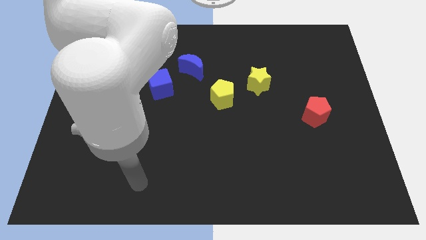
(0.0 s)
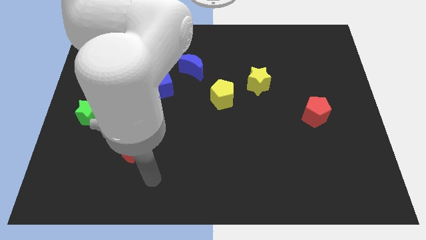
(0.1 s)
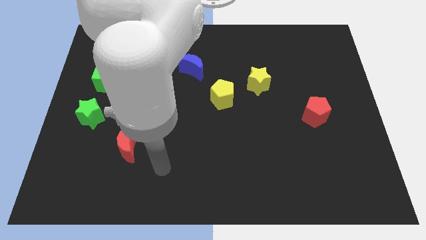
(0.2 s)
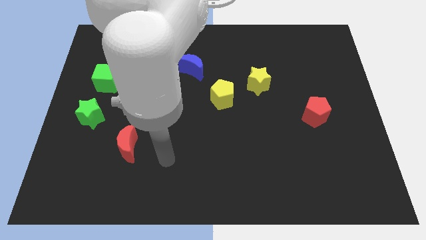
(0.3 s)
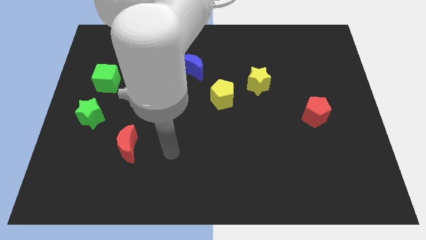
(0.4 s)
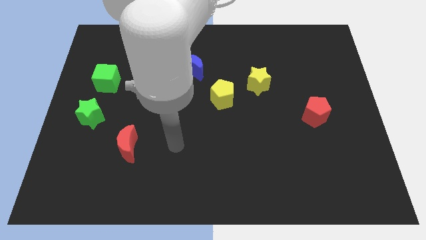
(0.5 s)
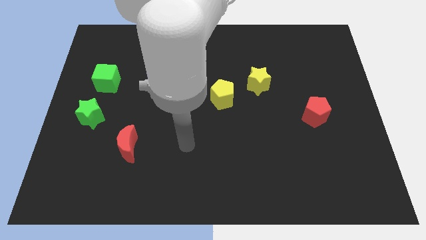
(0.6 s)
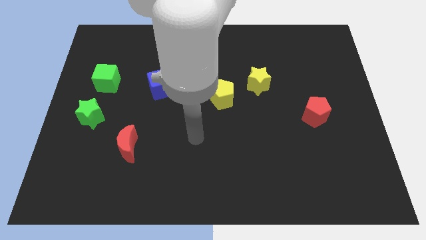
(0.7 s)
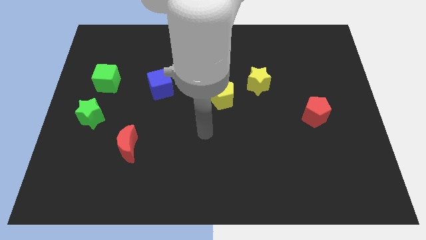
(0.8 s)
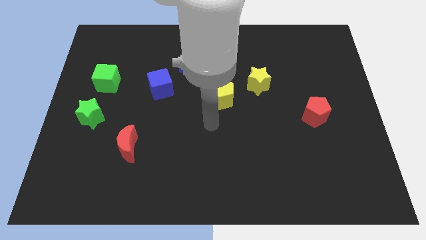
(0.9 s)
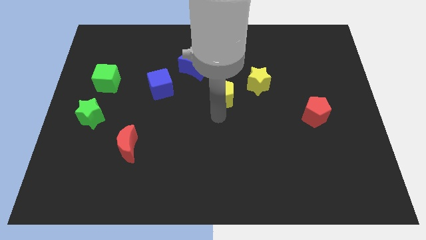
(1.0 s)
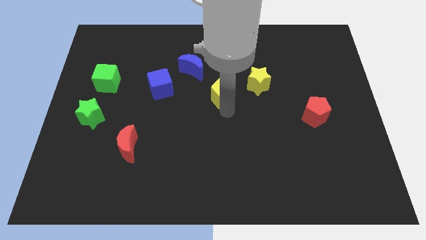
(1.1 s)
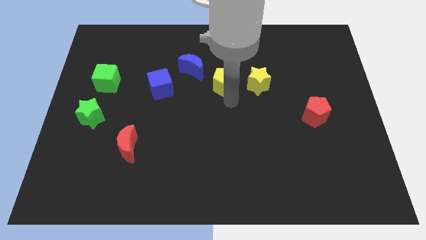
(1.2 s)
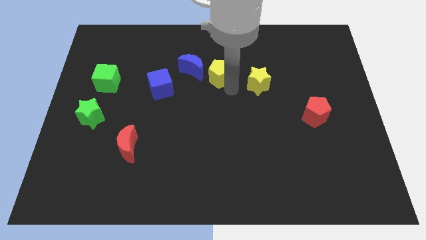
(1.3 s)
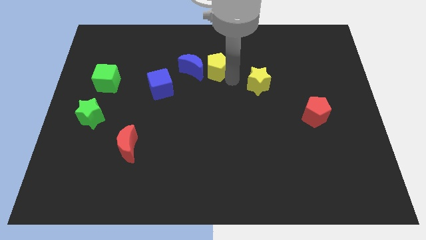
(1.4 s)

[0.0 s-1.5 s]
separate the yellow star from the yellow pentagon

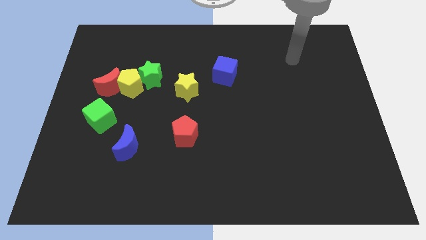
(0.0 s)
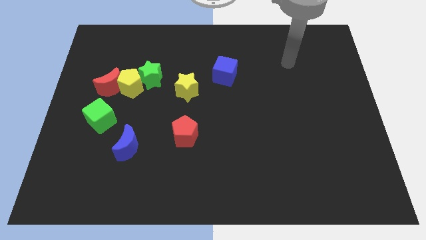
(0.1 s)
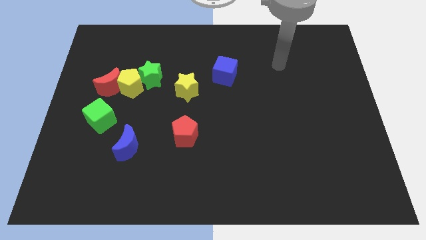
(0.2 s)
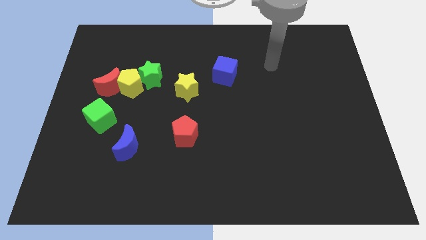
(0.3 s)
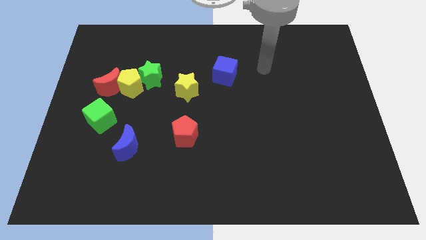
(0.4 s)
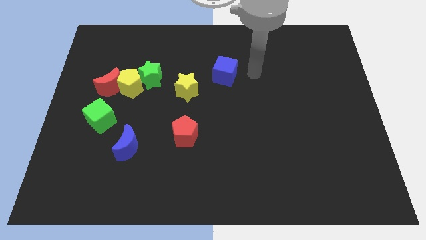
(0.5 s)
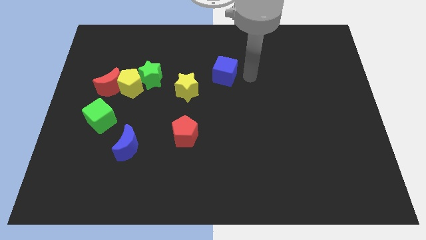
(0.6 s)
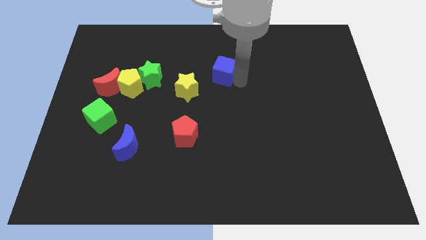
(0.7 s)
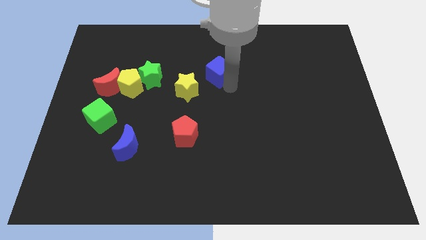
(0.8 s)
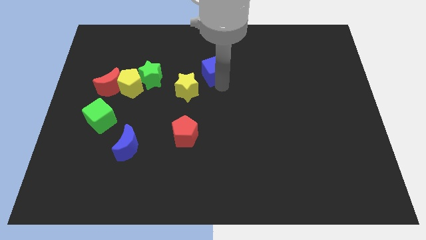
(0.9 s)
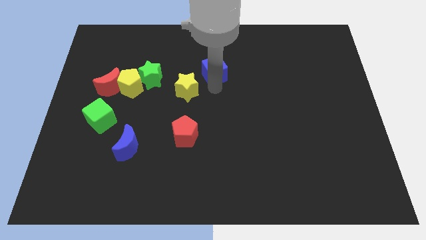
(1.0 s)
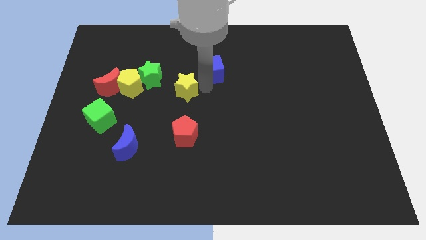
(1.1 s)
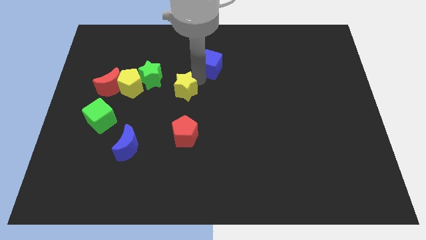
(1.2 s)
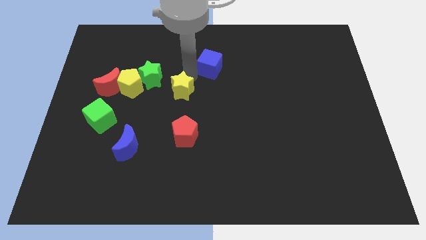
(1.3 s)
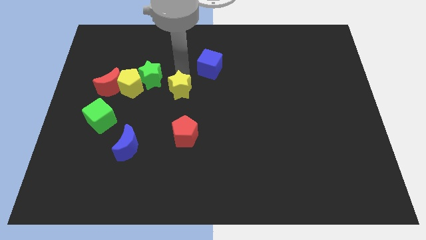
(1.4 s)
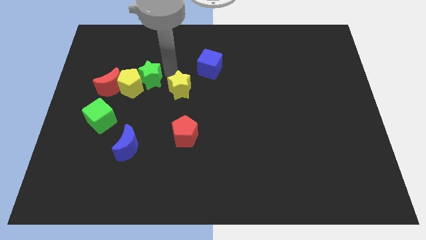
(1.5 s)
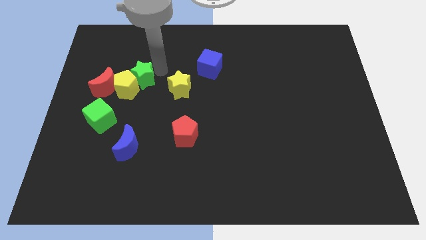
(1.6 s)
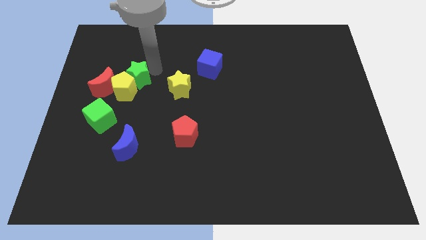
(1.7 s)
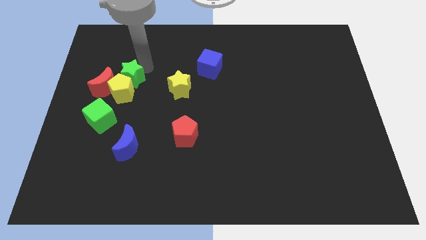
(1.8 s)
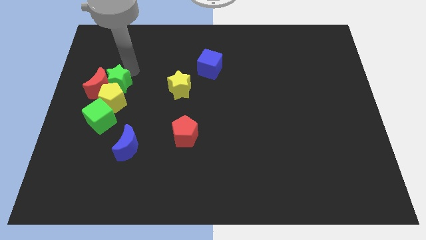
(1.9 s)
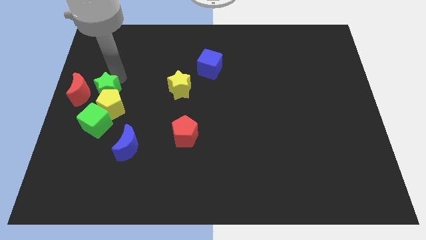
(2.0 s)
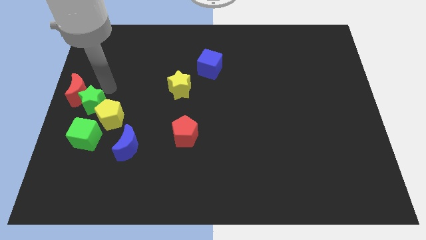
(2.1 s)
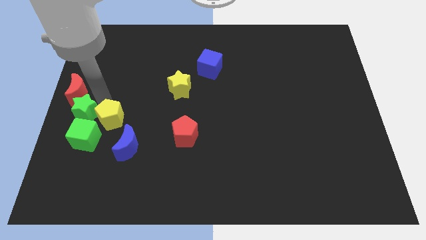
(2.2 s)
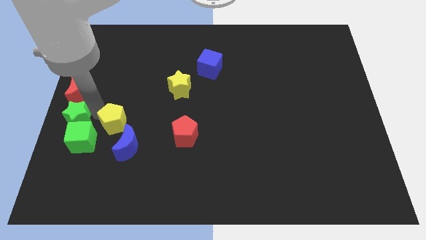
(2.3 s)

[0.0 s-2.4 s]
separate the yellow pentagon from the red moon and green star

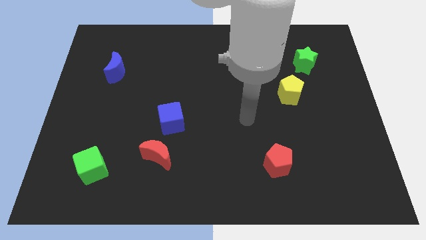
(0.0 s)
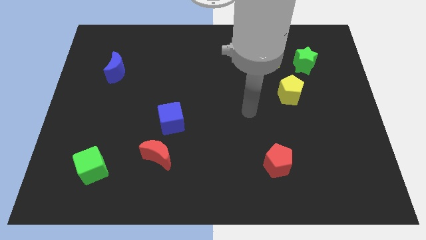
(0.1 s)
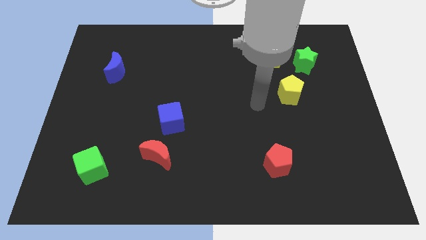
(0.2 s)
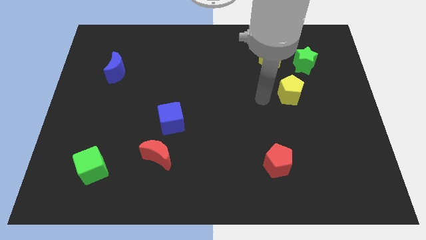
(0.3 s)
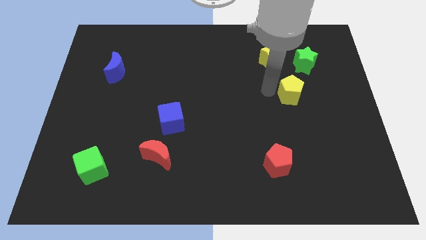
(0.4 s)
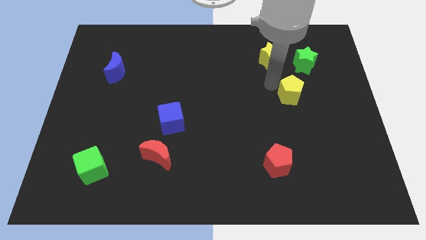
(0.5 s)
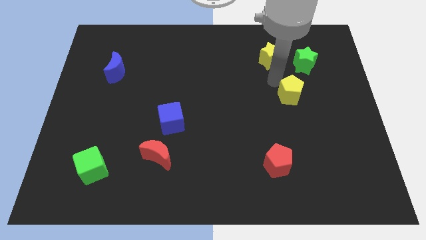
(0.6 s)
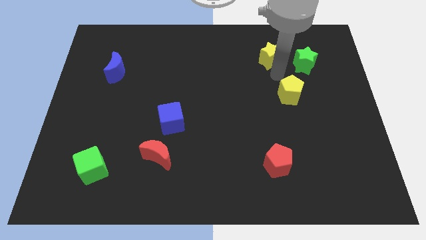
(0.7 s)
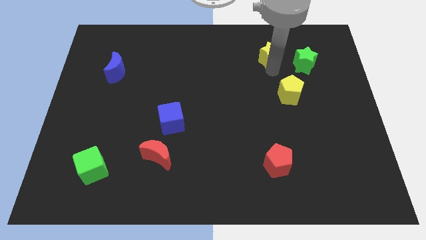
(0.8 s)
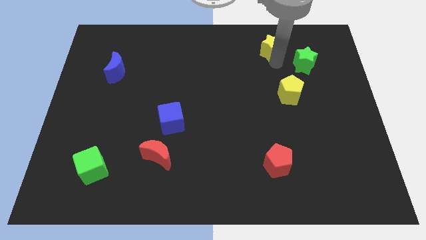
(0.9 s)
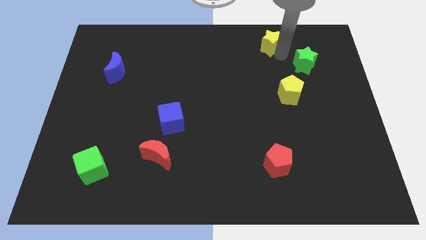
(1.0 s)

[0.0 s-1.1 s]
separate the green star from the yellow star

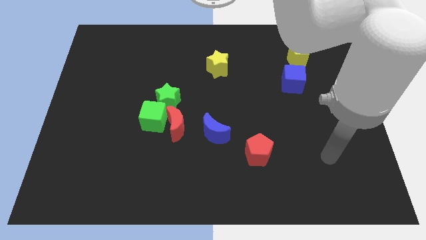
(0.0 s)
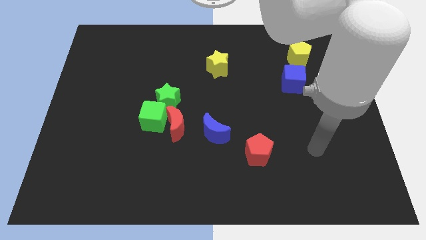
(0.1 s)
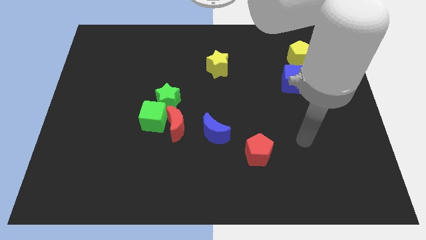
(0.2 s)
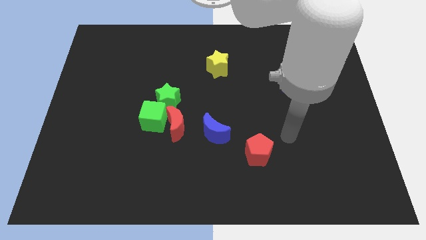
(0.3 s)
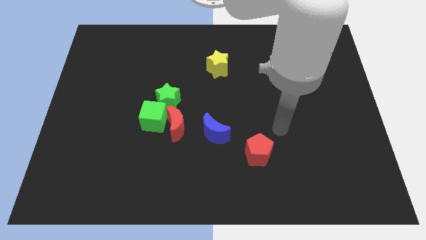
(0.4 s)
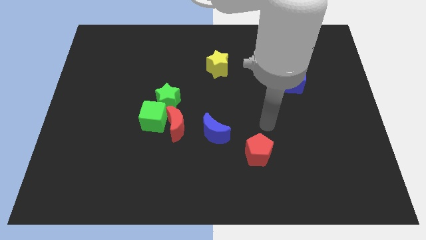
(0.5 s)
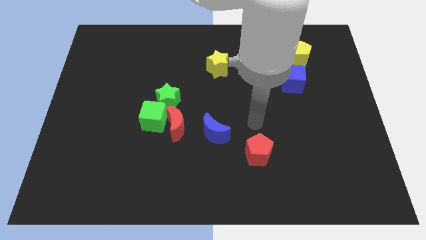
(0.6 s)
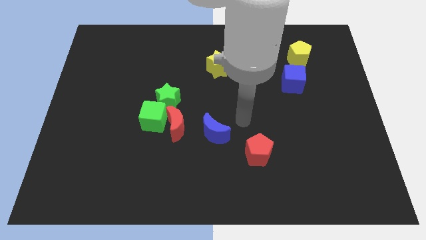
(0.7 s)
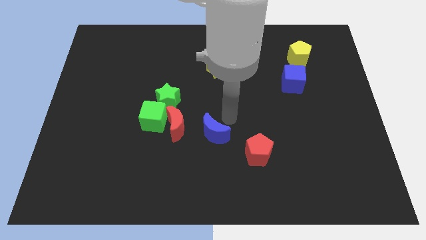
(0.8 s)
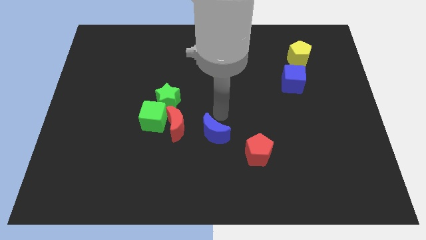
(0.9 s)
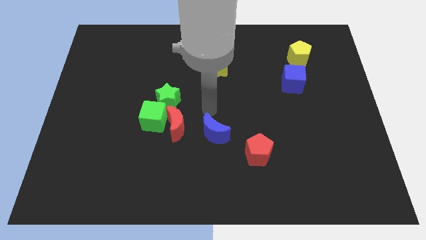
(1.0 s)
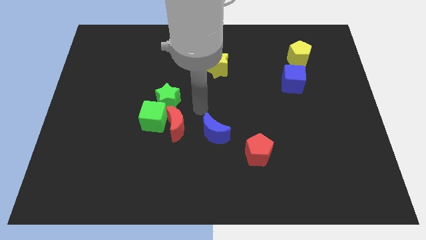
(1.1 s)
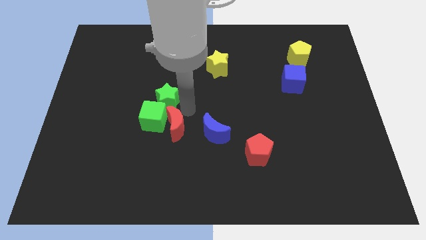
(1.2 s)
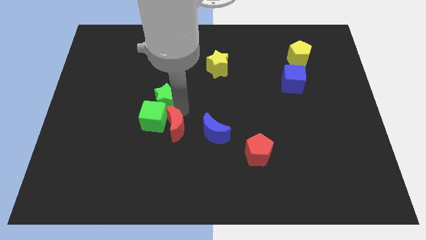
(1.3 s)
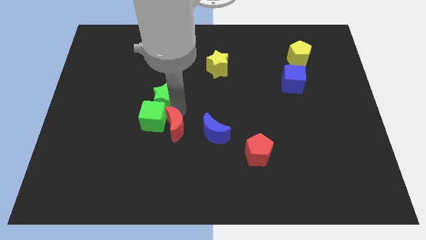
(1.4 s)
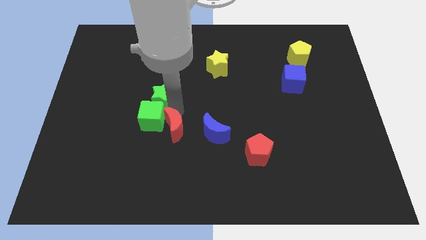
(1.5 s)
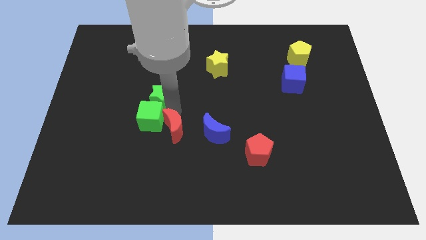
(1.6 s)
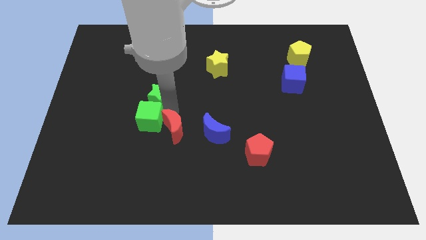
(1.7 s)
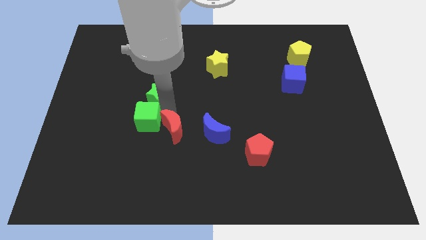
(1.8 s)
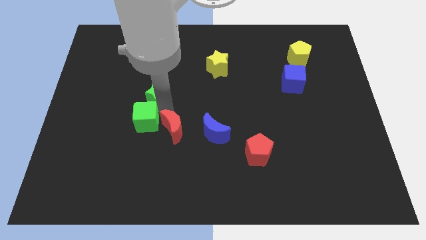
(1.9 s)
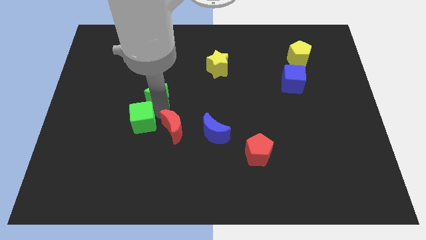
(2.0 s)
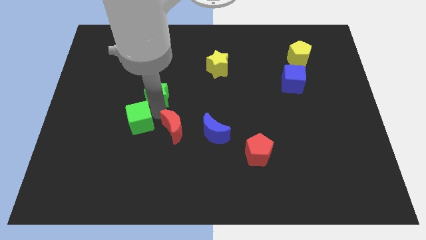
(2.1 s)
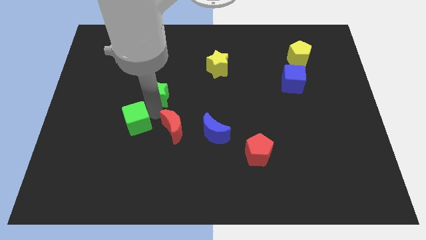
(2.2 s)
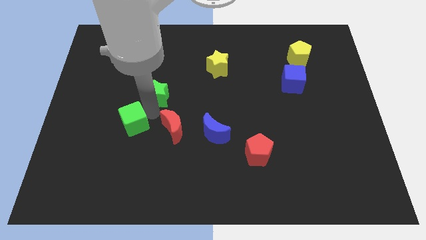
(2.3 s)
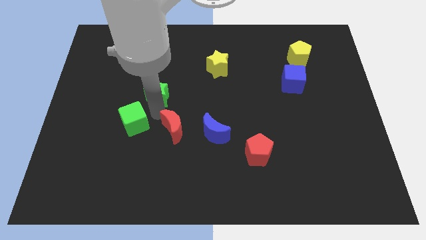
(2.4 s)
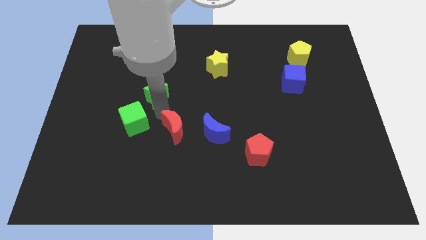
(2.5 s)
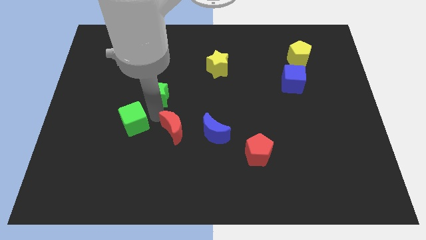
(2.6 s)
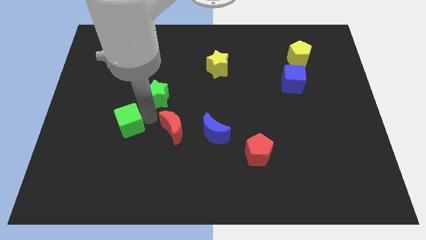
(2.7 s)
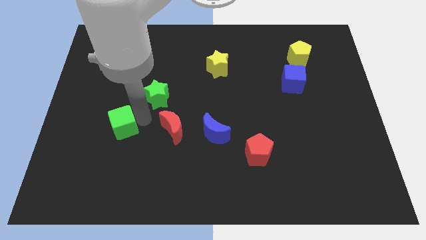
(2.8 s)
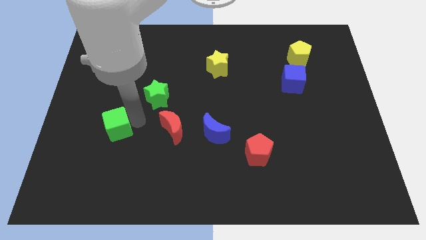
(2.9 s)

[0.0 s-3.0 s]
pull the green cube apart from the red moon and green star

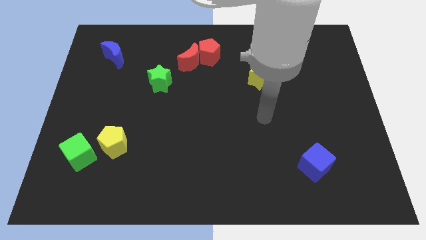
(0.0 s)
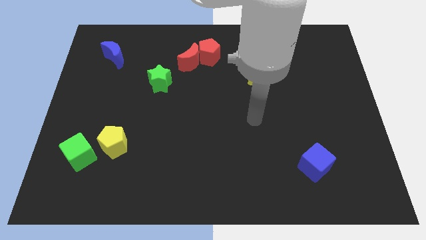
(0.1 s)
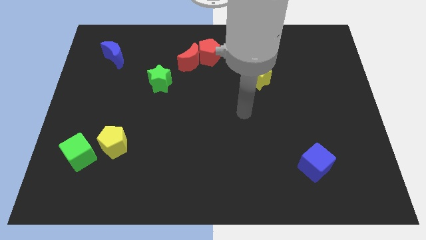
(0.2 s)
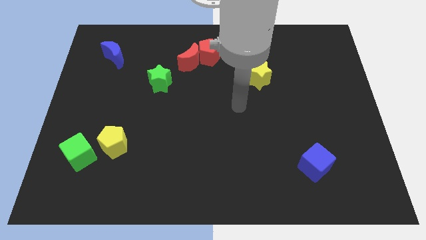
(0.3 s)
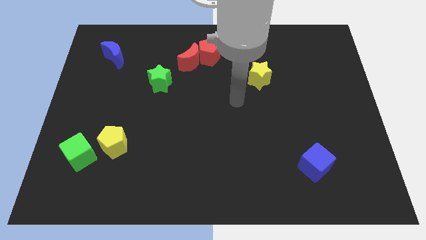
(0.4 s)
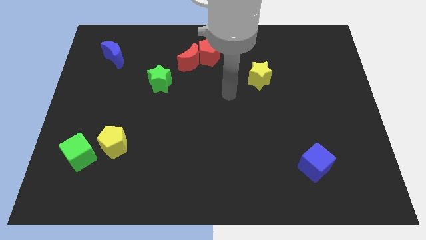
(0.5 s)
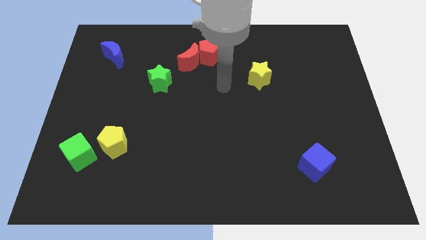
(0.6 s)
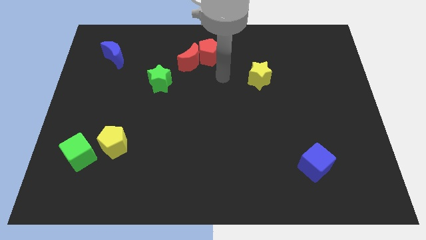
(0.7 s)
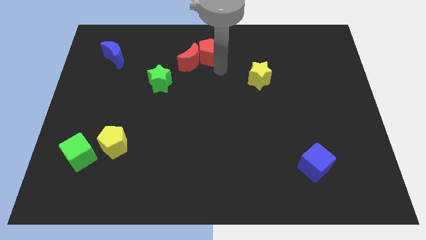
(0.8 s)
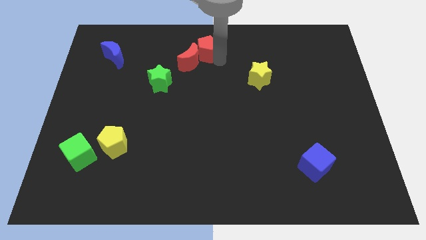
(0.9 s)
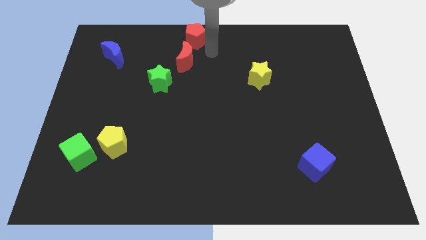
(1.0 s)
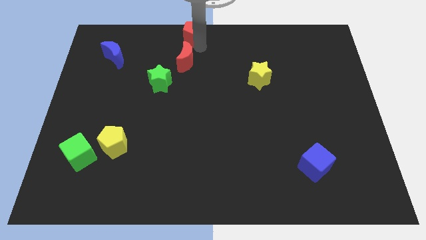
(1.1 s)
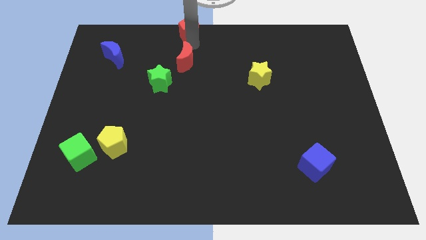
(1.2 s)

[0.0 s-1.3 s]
pull the red moon apart from the red pentagon
